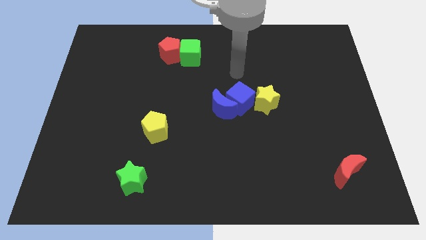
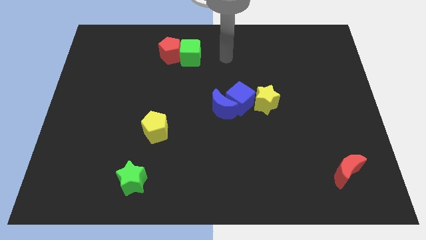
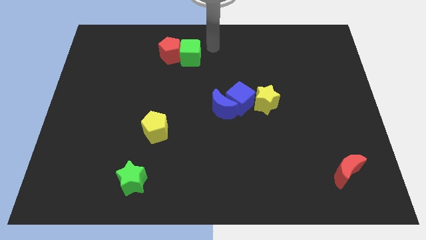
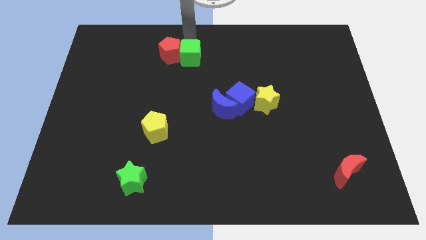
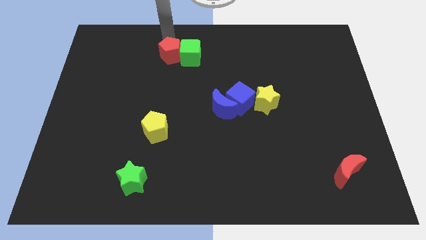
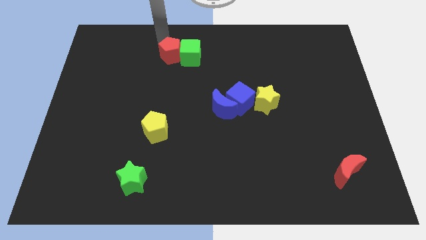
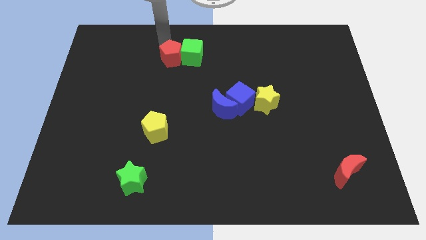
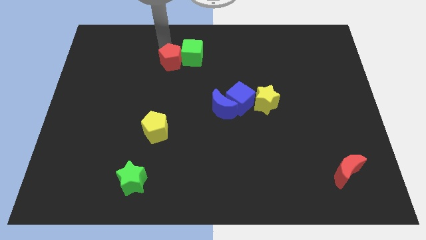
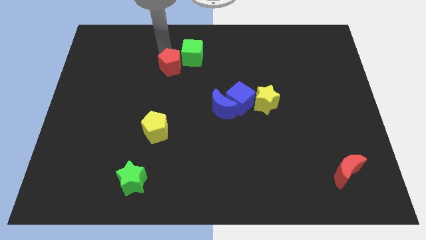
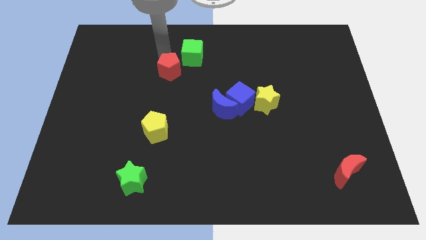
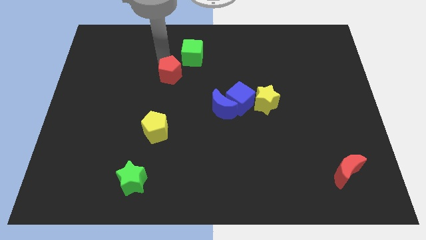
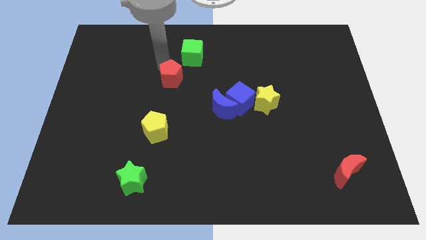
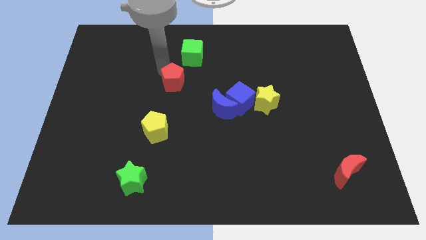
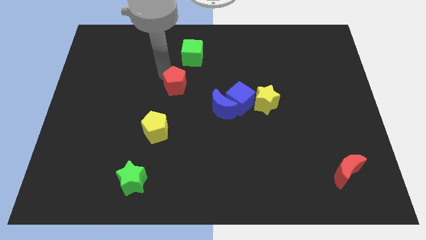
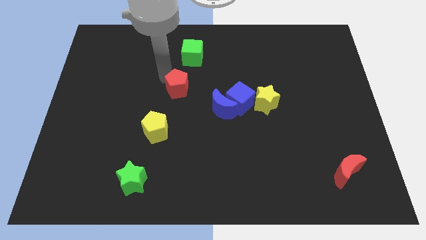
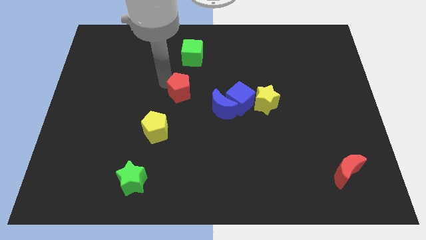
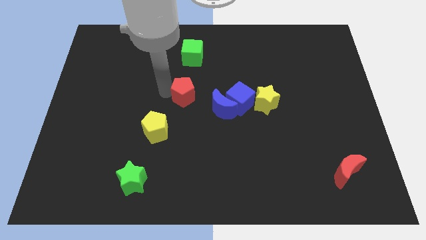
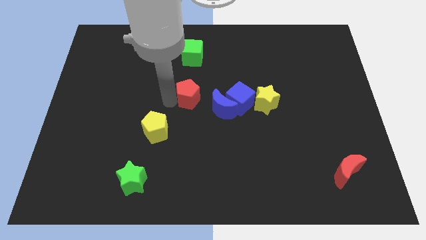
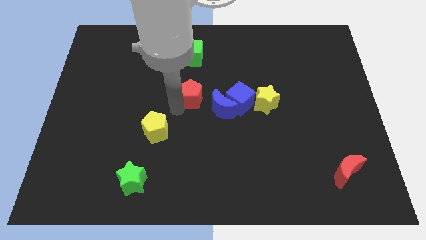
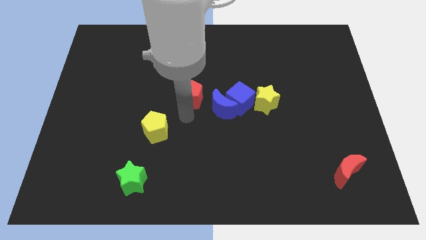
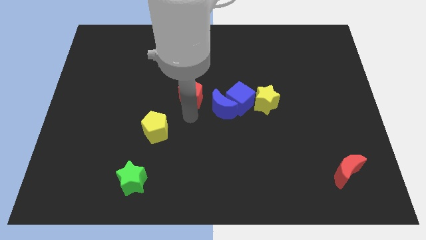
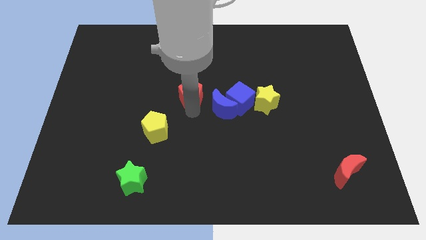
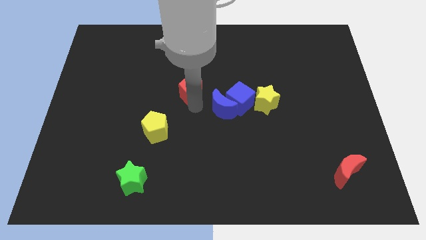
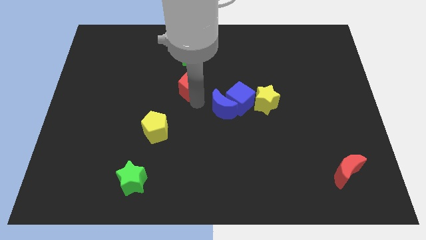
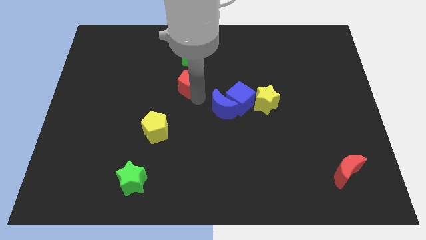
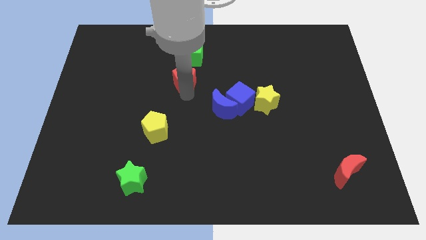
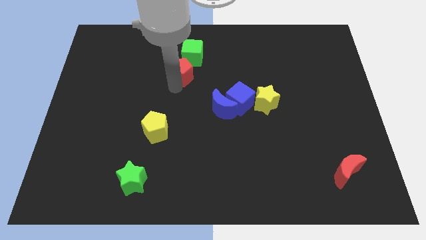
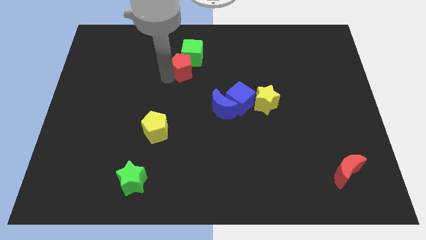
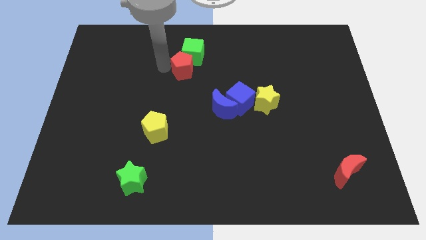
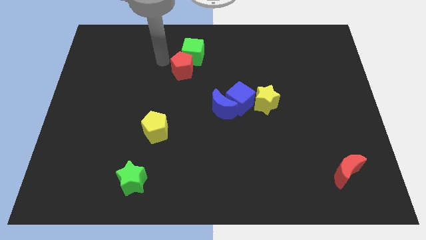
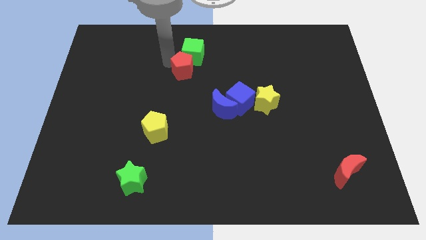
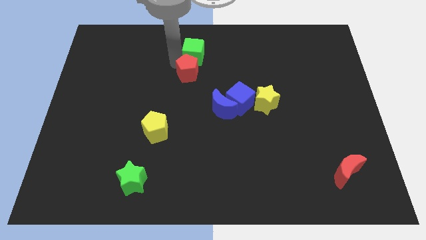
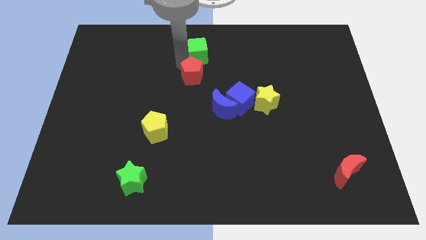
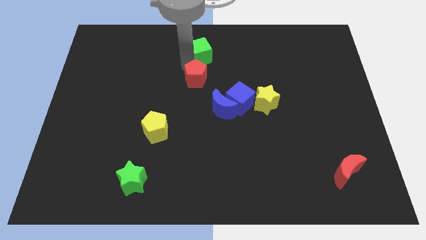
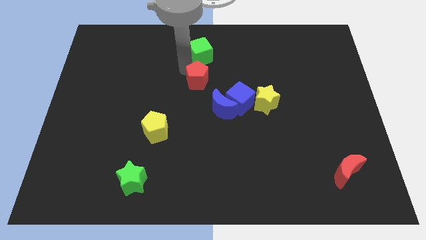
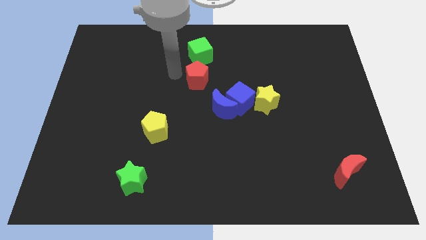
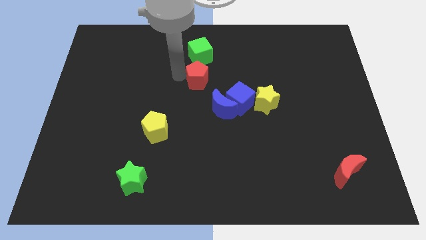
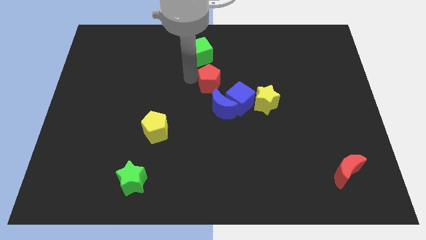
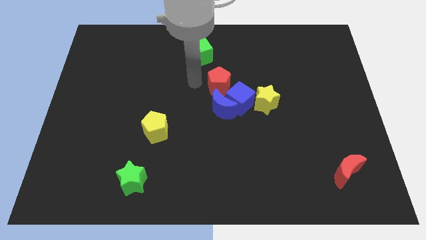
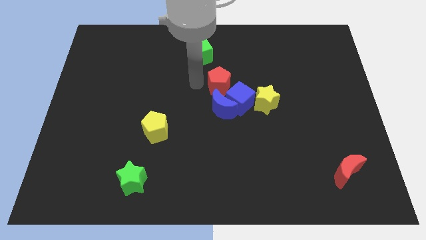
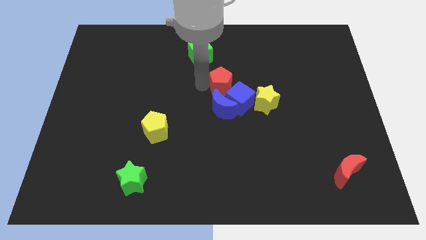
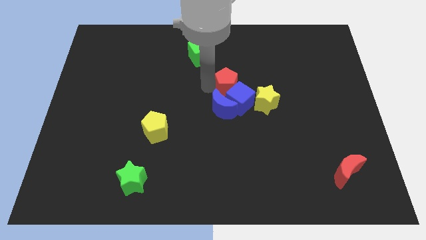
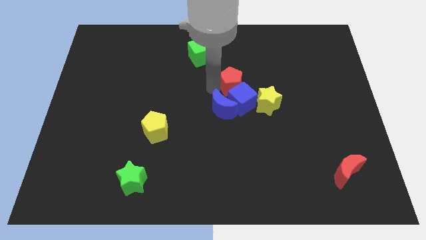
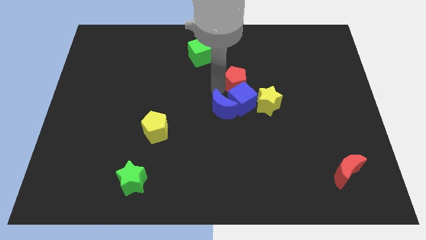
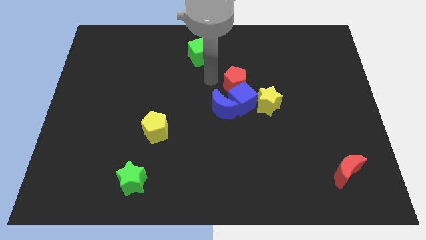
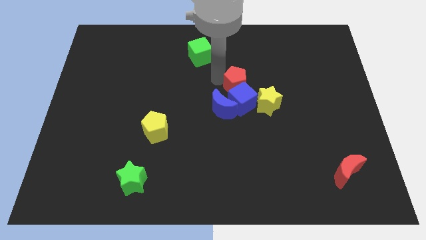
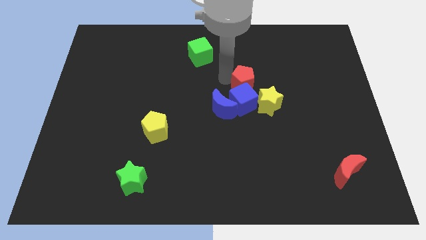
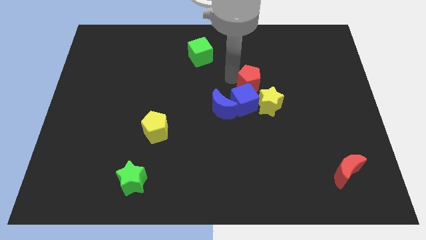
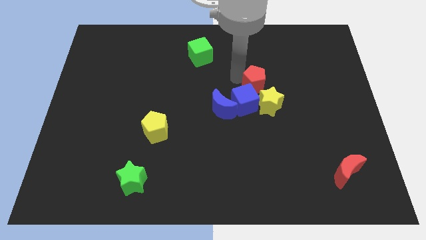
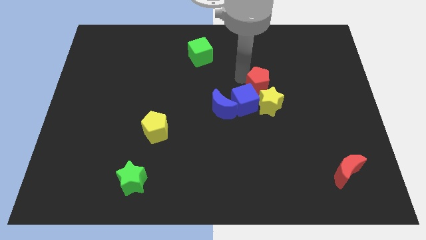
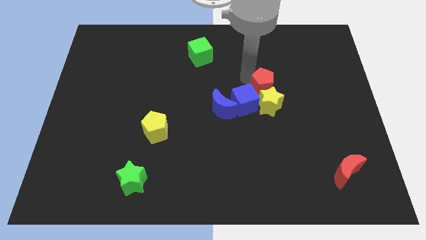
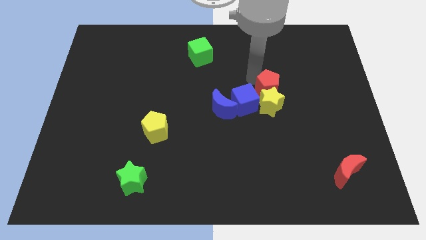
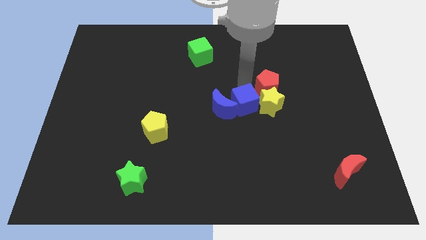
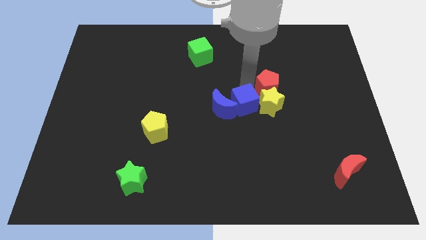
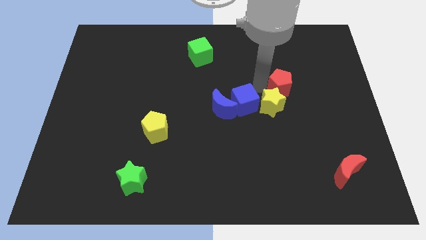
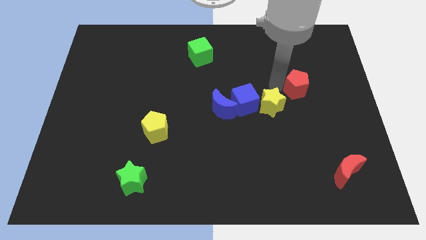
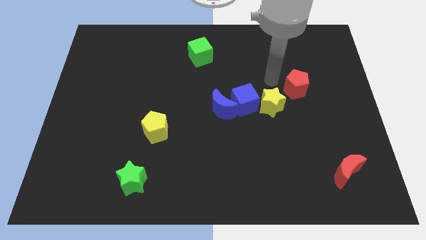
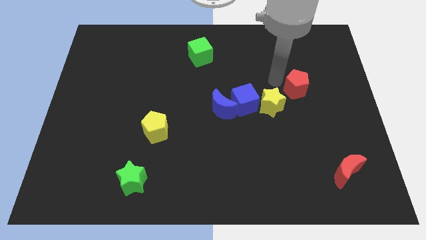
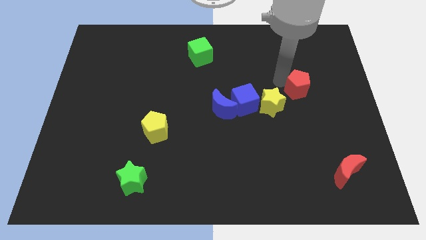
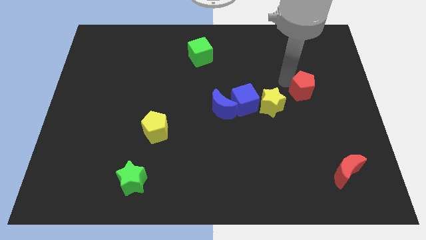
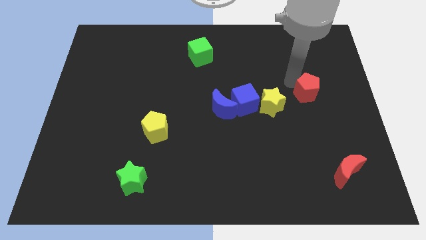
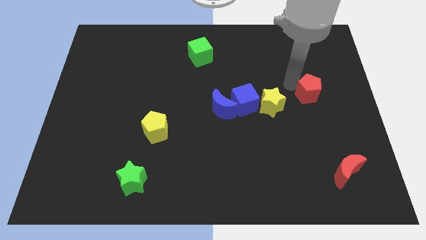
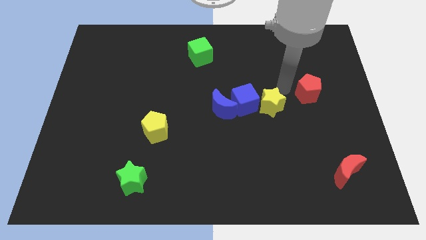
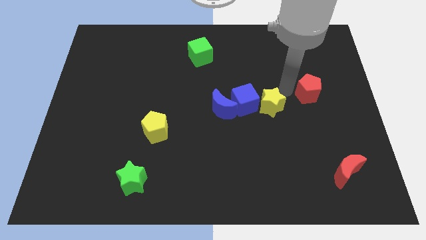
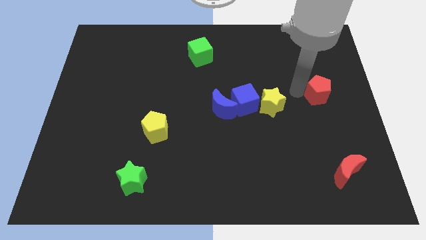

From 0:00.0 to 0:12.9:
push the red pentagon to the center right

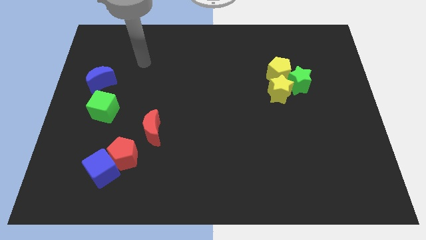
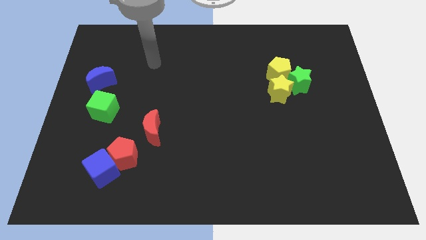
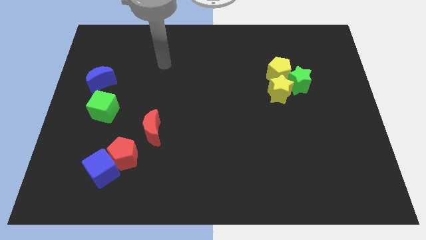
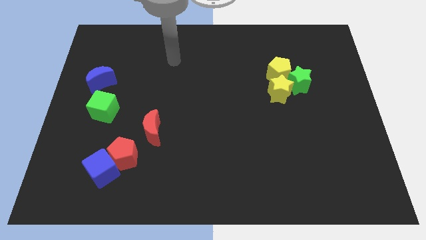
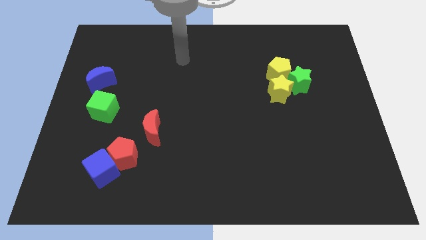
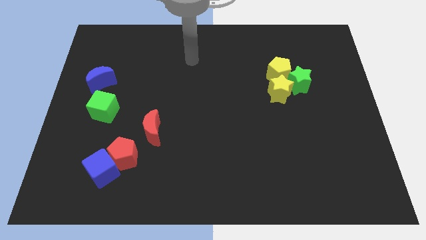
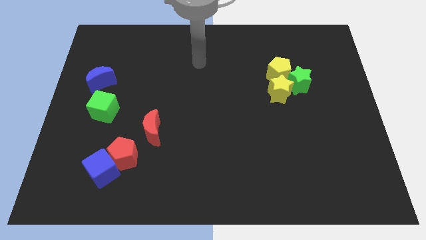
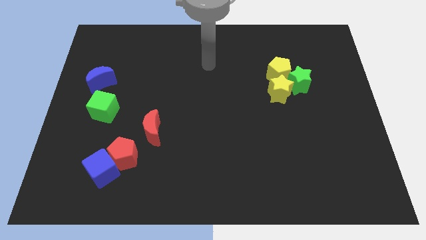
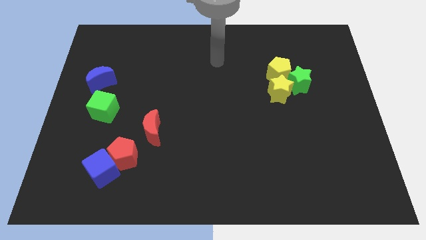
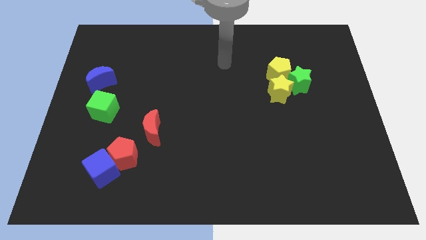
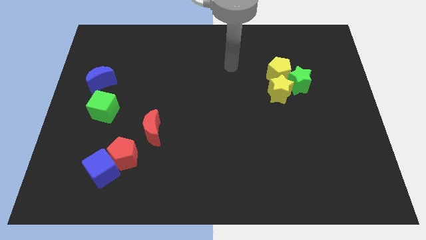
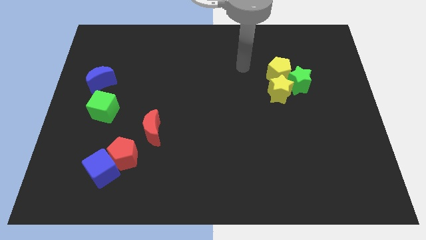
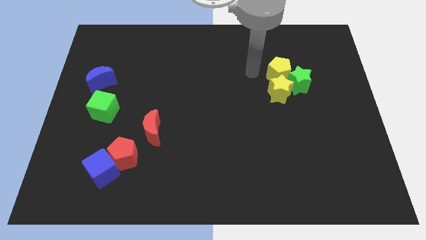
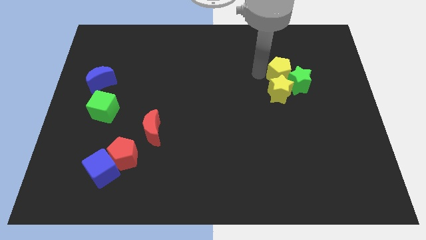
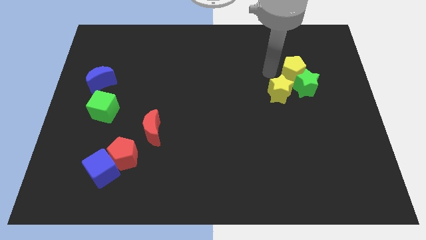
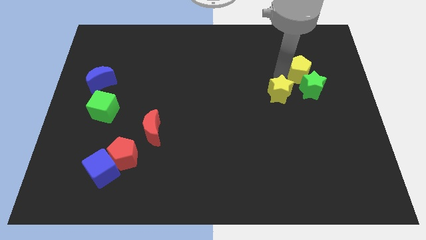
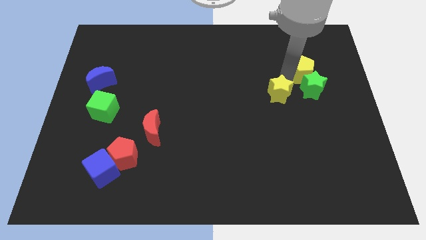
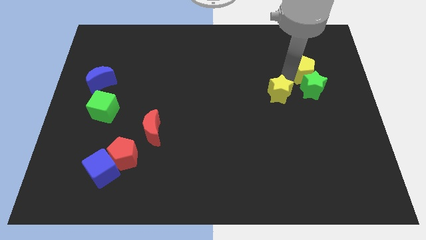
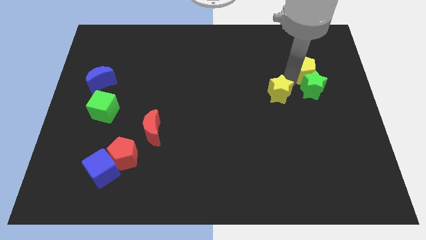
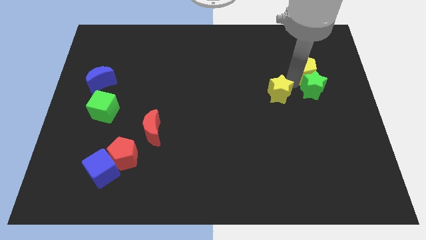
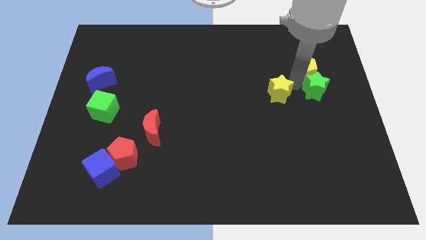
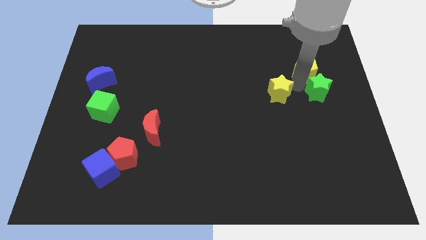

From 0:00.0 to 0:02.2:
push the green star to the right side
